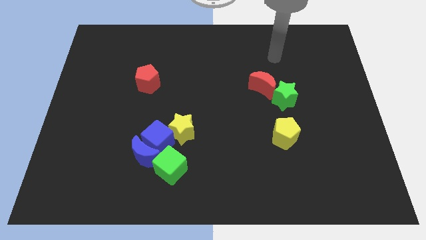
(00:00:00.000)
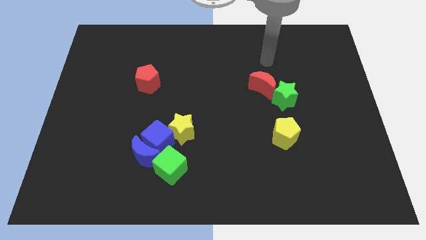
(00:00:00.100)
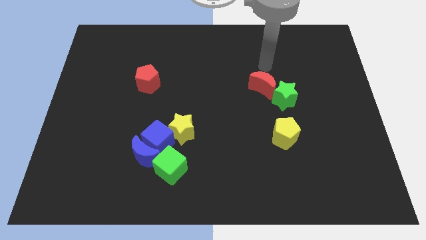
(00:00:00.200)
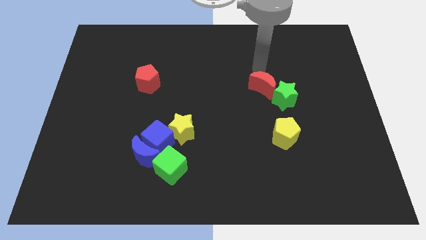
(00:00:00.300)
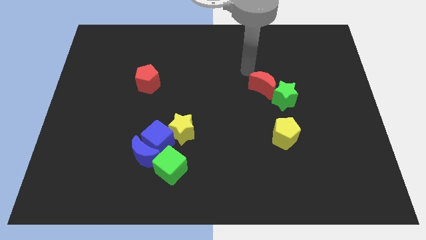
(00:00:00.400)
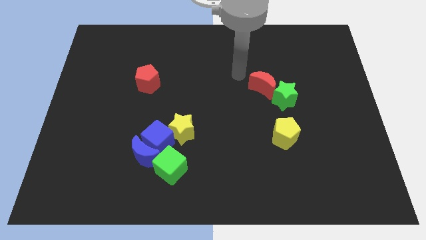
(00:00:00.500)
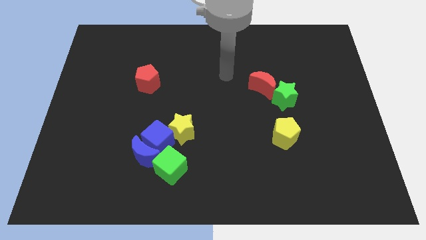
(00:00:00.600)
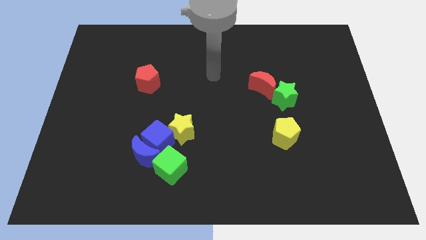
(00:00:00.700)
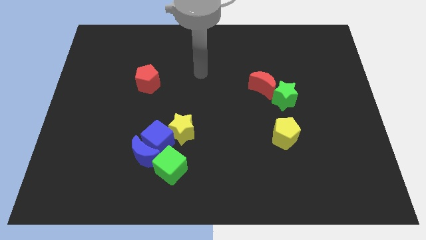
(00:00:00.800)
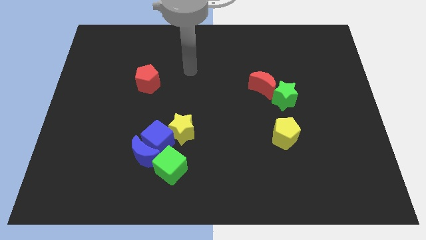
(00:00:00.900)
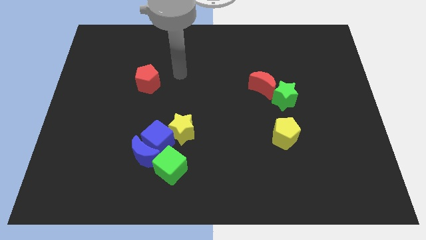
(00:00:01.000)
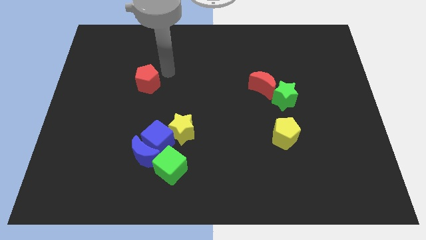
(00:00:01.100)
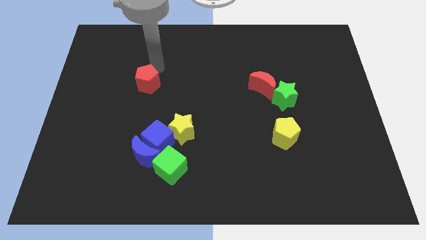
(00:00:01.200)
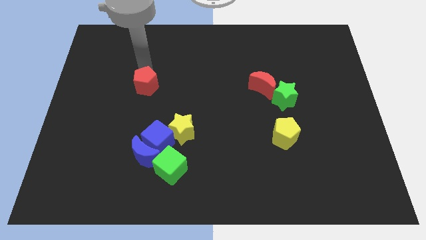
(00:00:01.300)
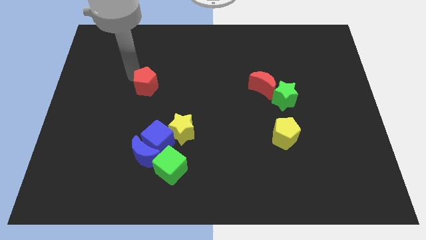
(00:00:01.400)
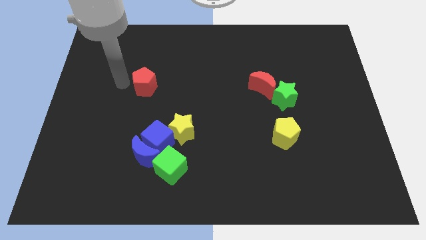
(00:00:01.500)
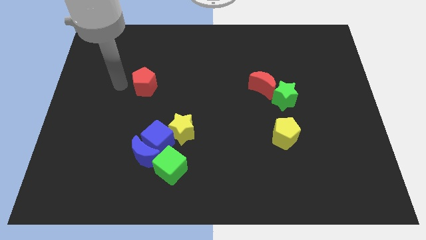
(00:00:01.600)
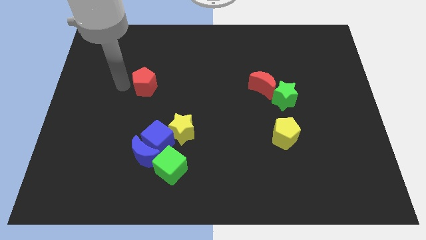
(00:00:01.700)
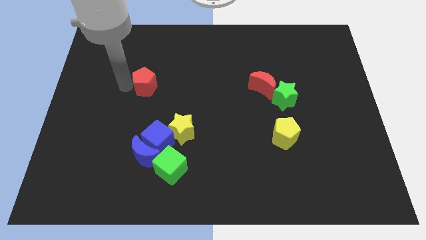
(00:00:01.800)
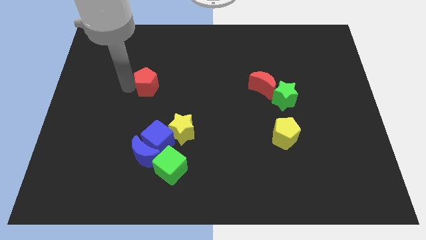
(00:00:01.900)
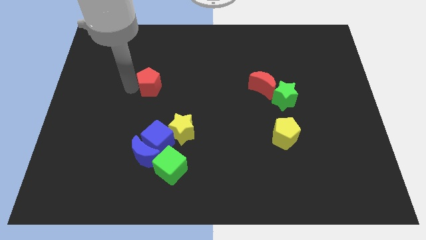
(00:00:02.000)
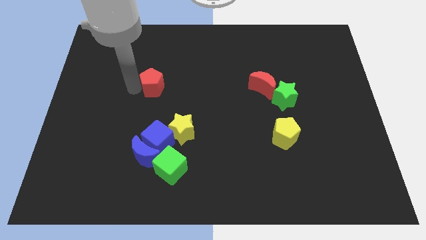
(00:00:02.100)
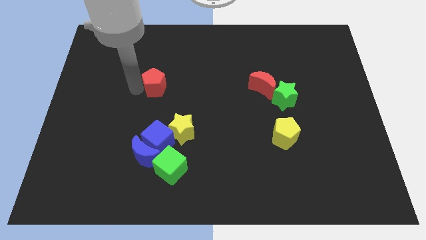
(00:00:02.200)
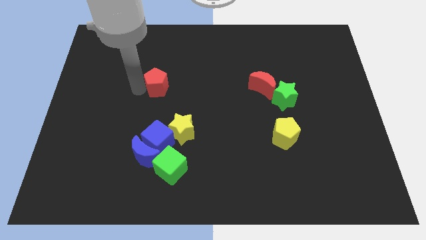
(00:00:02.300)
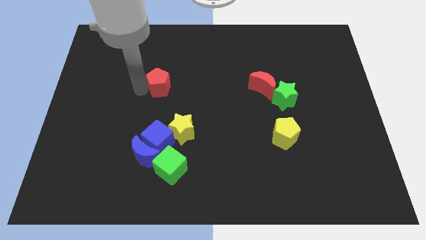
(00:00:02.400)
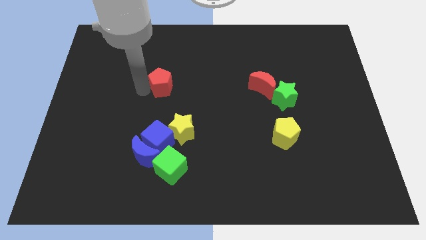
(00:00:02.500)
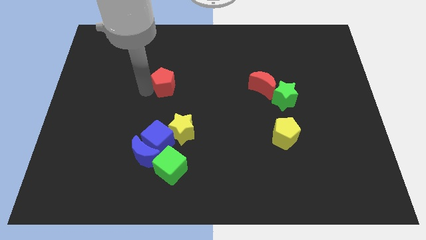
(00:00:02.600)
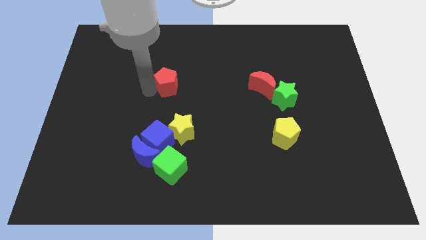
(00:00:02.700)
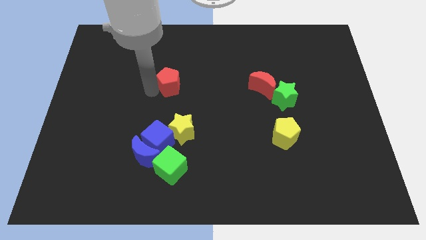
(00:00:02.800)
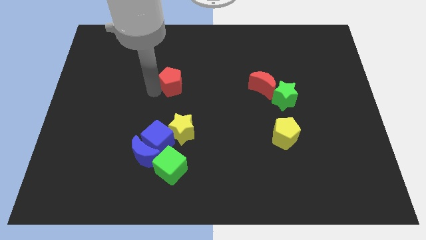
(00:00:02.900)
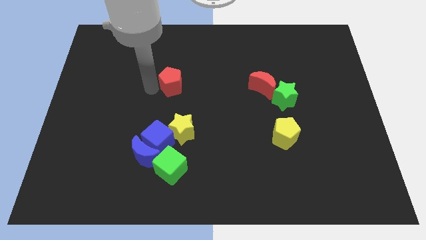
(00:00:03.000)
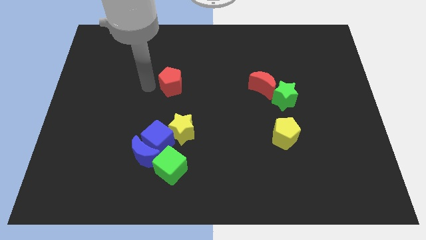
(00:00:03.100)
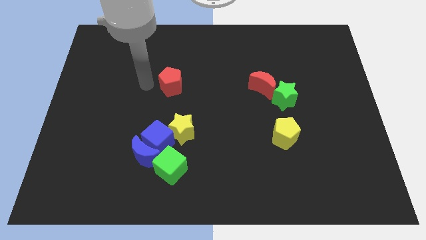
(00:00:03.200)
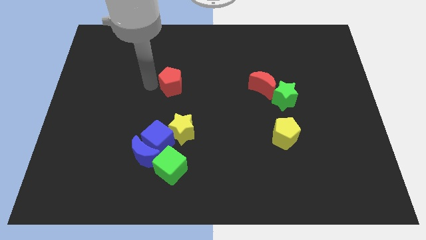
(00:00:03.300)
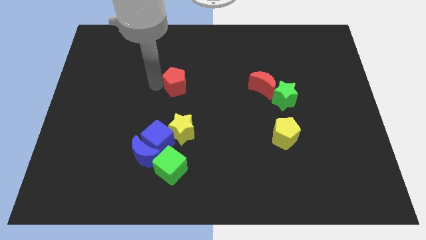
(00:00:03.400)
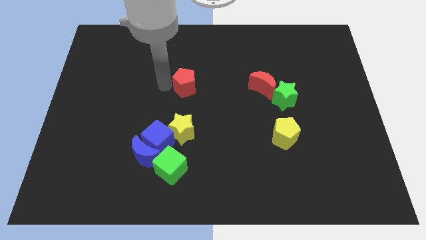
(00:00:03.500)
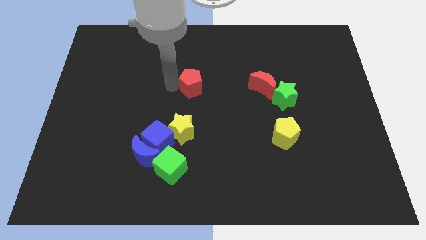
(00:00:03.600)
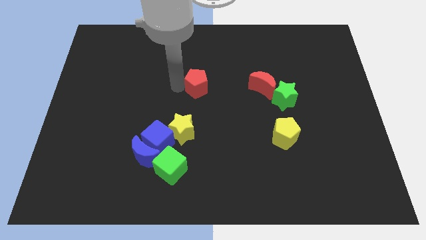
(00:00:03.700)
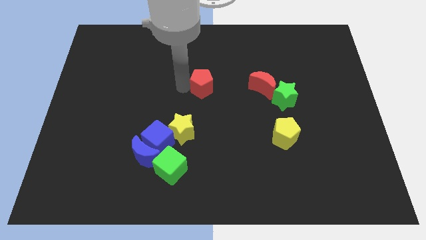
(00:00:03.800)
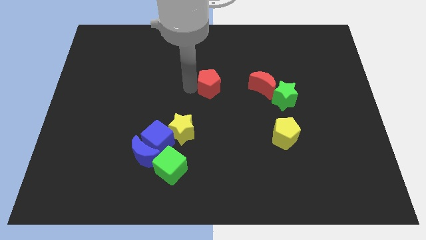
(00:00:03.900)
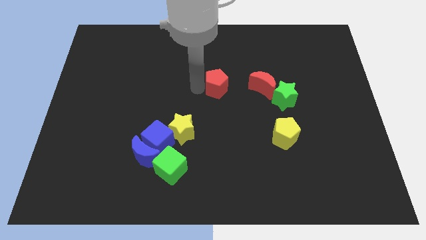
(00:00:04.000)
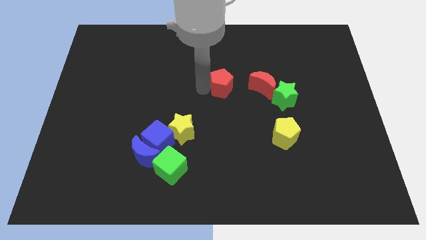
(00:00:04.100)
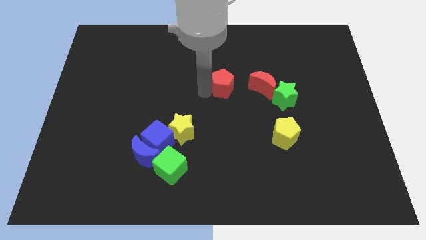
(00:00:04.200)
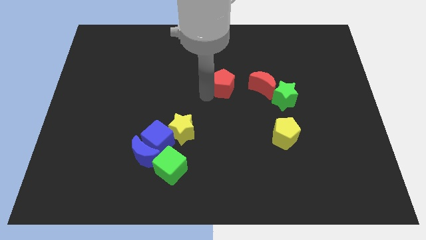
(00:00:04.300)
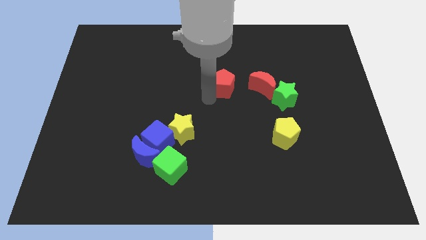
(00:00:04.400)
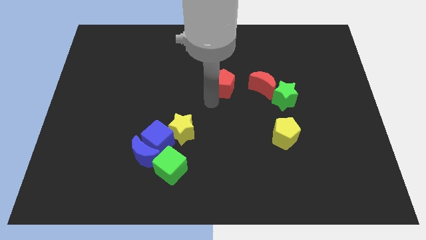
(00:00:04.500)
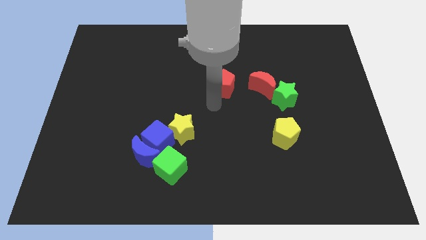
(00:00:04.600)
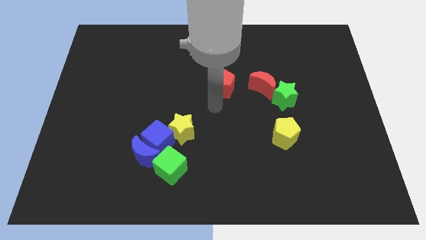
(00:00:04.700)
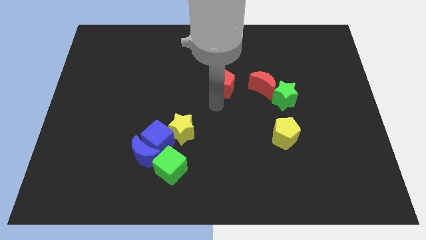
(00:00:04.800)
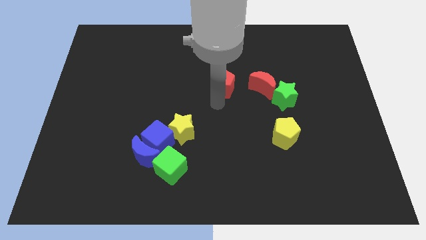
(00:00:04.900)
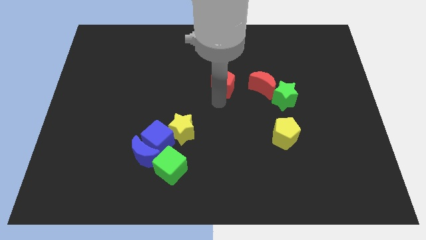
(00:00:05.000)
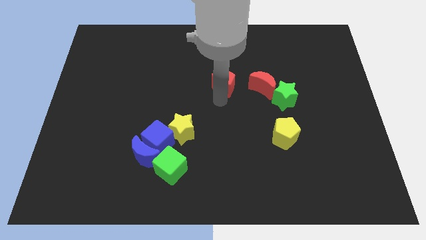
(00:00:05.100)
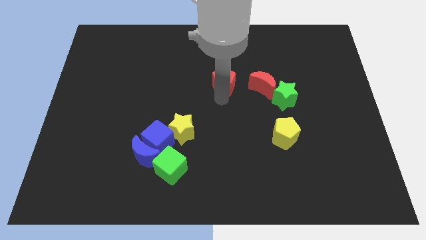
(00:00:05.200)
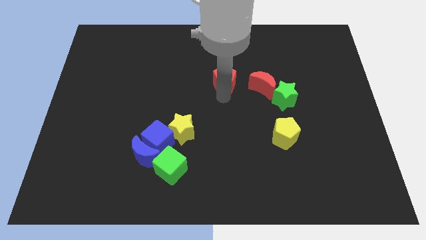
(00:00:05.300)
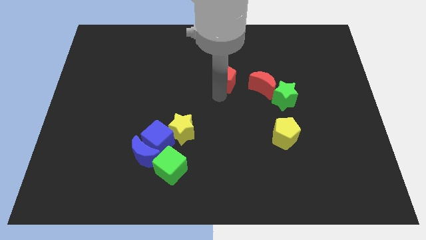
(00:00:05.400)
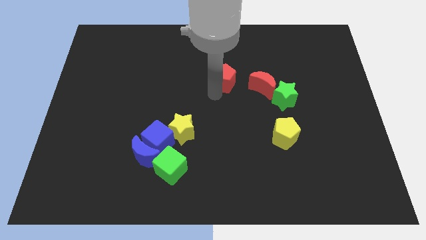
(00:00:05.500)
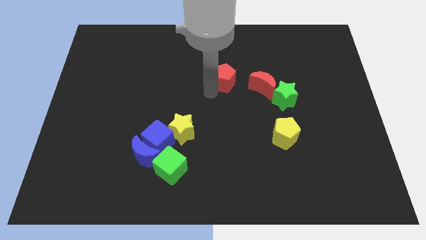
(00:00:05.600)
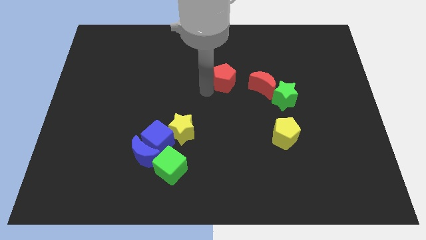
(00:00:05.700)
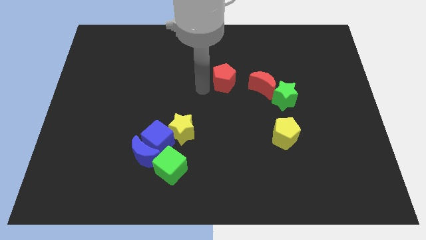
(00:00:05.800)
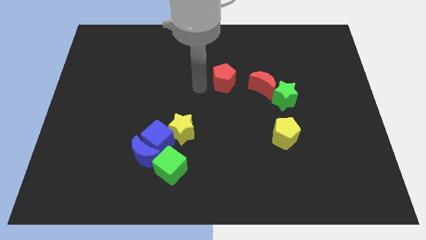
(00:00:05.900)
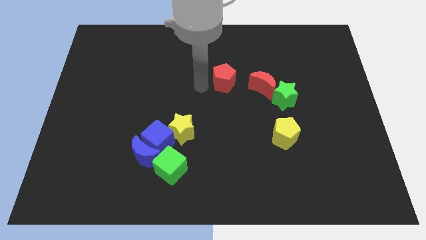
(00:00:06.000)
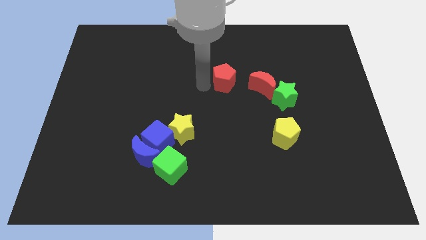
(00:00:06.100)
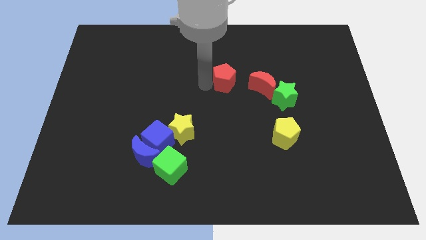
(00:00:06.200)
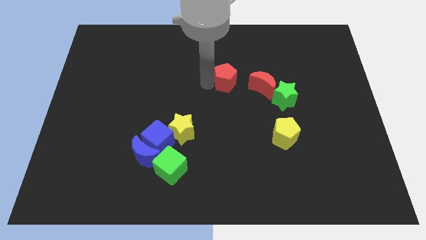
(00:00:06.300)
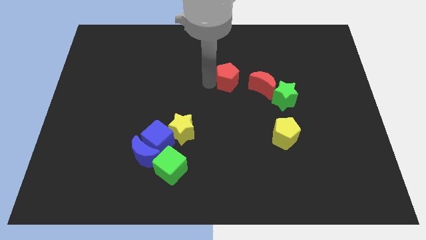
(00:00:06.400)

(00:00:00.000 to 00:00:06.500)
slide the red pentagon to the right

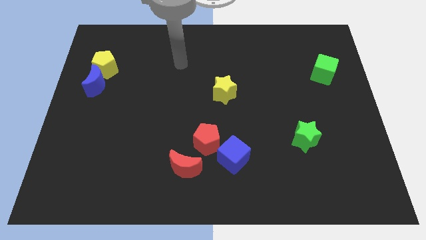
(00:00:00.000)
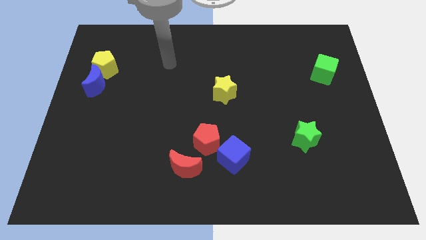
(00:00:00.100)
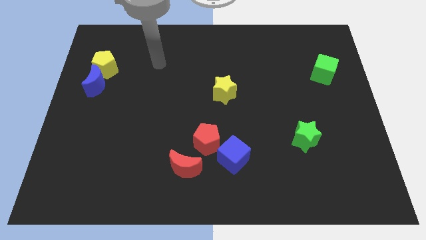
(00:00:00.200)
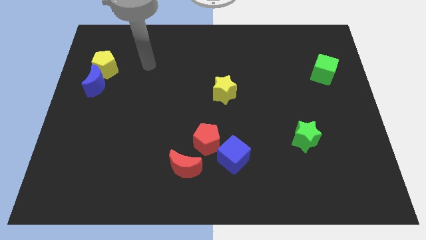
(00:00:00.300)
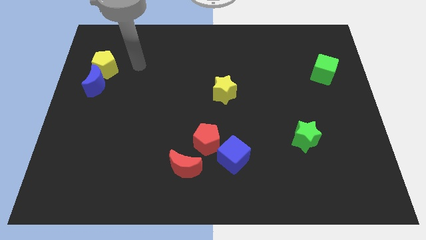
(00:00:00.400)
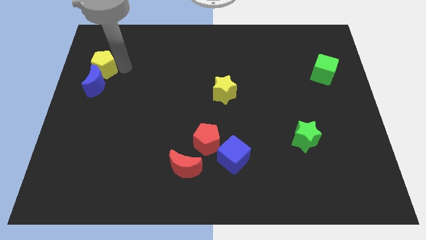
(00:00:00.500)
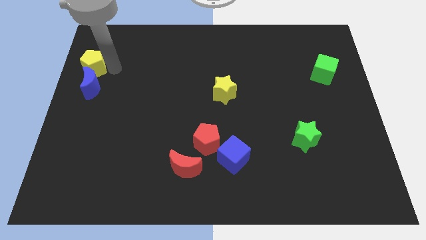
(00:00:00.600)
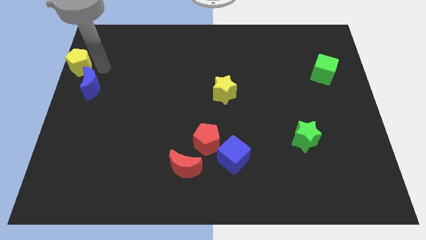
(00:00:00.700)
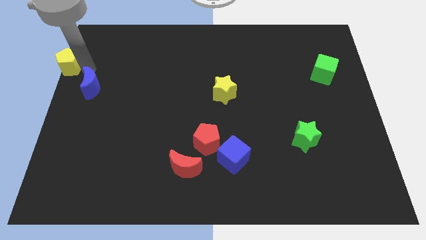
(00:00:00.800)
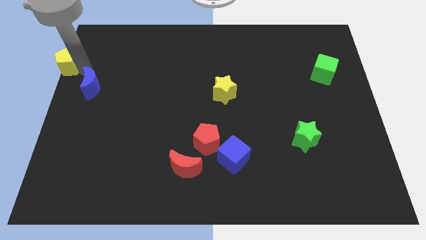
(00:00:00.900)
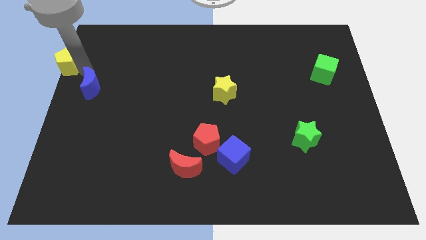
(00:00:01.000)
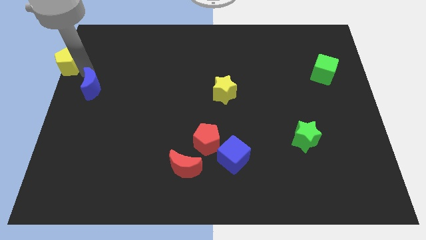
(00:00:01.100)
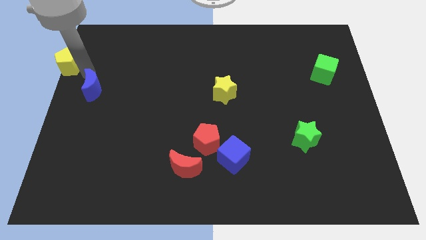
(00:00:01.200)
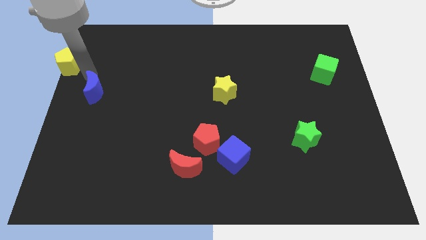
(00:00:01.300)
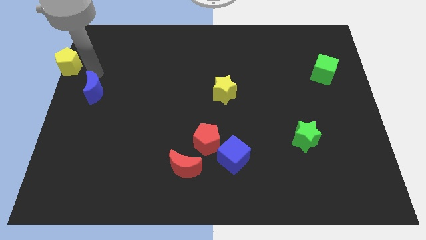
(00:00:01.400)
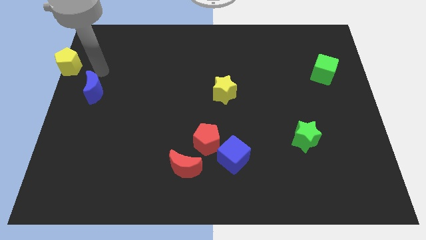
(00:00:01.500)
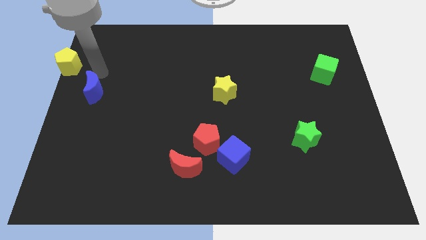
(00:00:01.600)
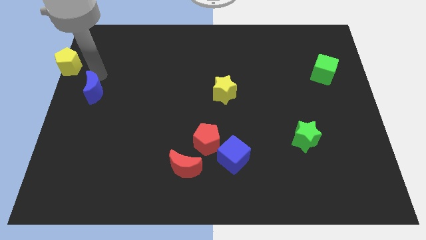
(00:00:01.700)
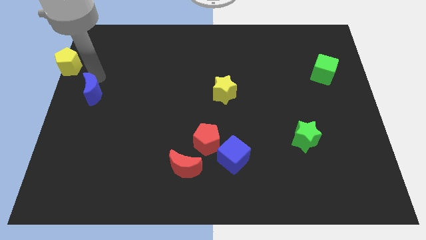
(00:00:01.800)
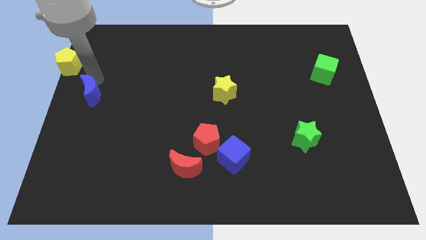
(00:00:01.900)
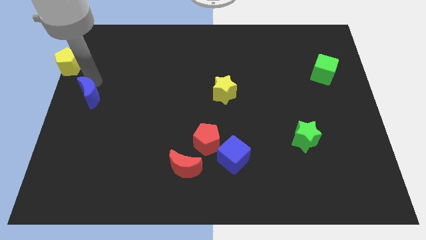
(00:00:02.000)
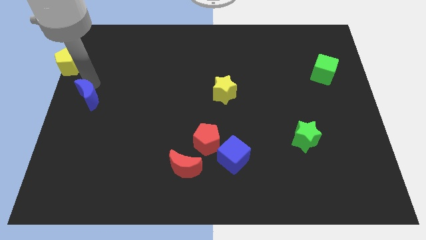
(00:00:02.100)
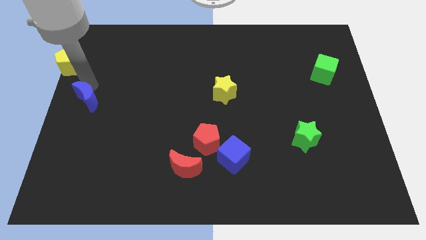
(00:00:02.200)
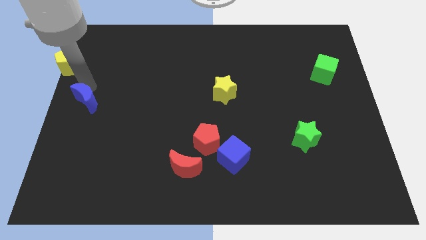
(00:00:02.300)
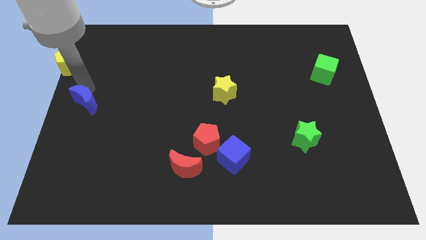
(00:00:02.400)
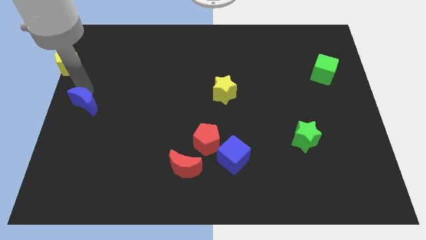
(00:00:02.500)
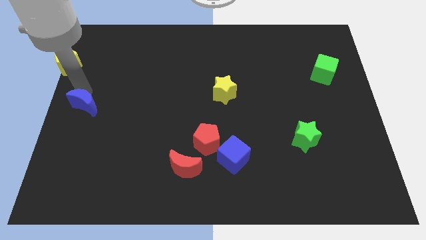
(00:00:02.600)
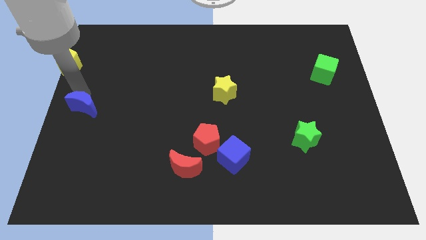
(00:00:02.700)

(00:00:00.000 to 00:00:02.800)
slightly slide the blue moon downwards
